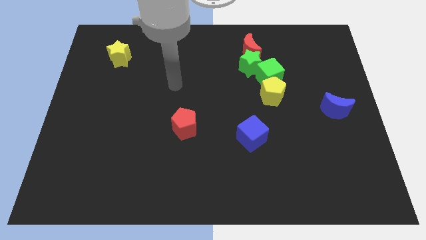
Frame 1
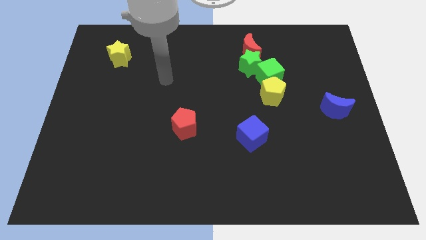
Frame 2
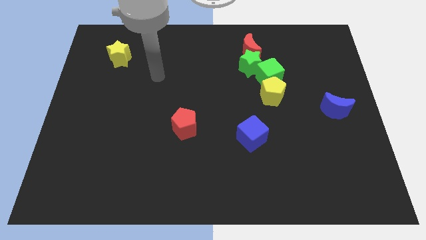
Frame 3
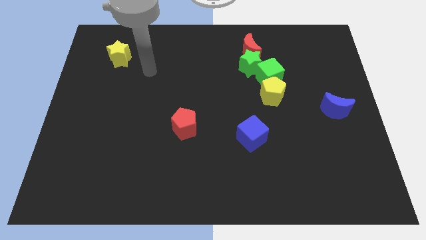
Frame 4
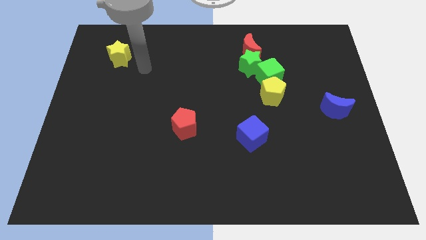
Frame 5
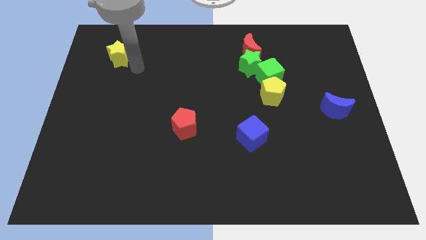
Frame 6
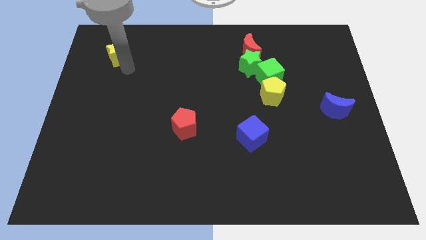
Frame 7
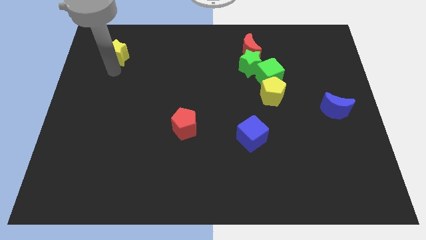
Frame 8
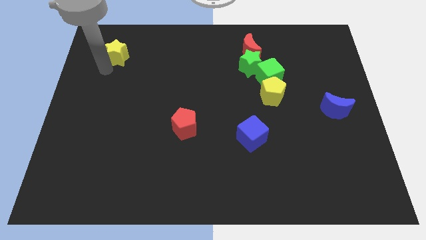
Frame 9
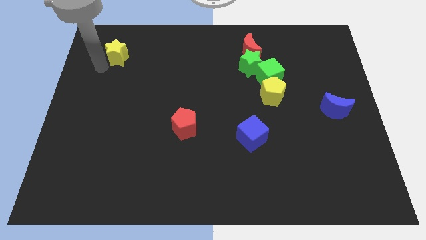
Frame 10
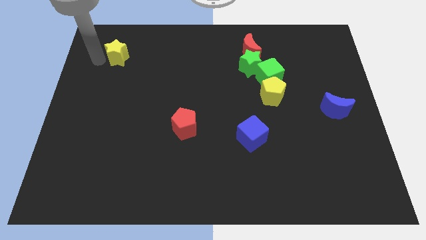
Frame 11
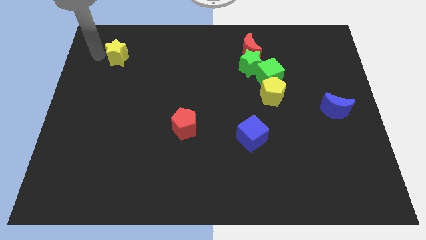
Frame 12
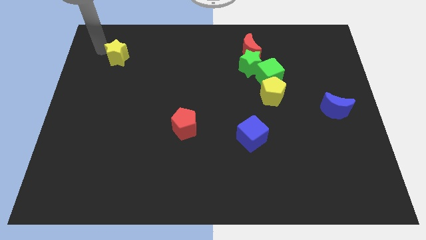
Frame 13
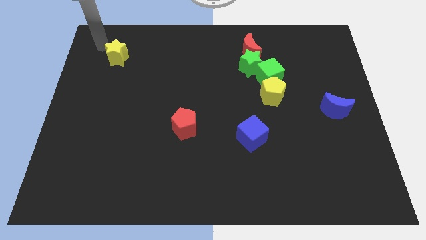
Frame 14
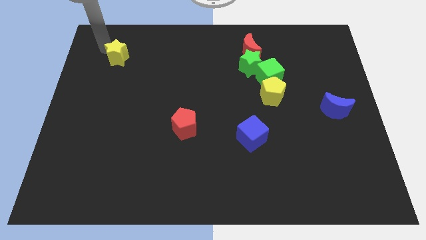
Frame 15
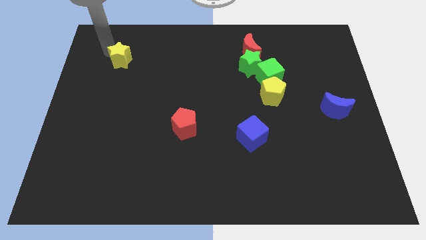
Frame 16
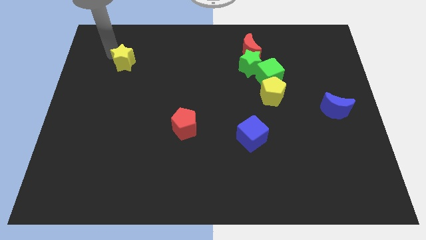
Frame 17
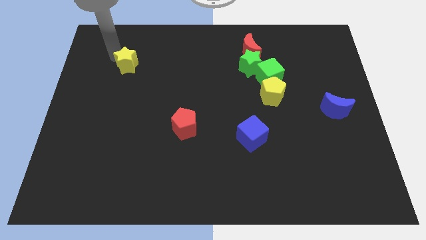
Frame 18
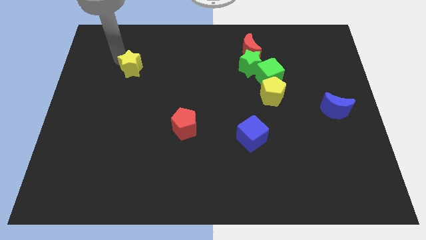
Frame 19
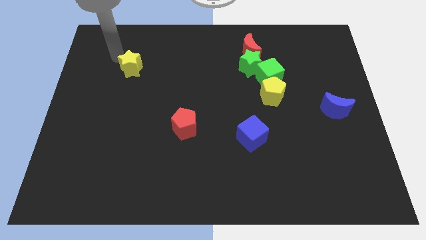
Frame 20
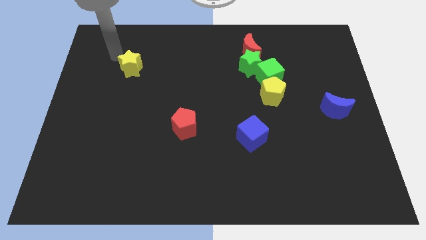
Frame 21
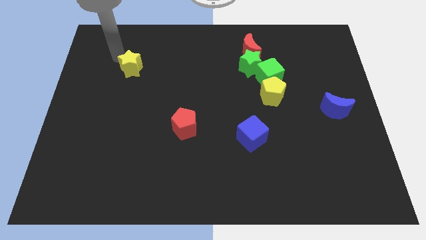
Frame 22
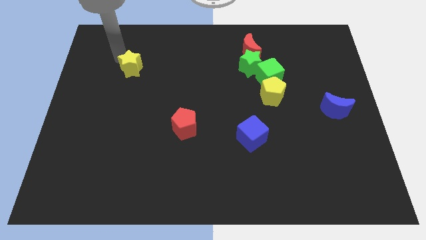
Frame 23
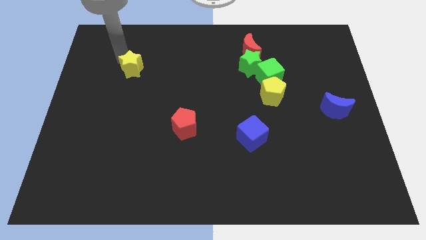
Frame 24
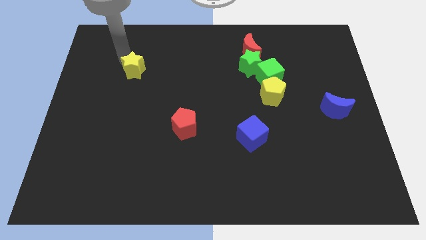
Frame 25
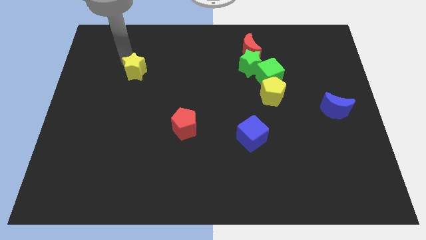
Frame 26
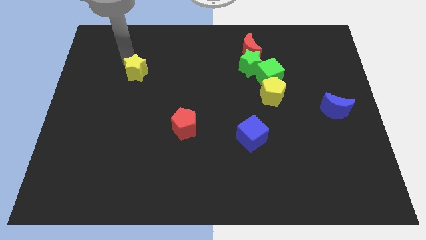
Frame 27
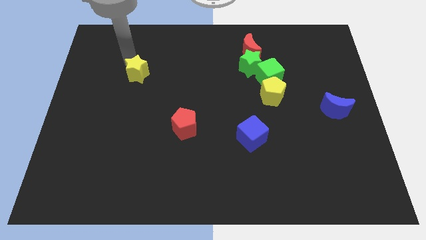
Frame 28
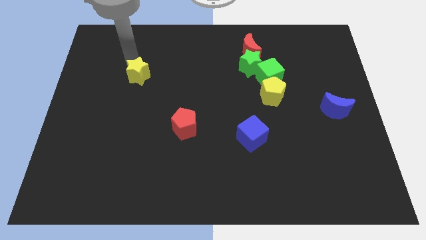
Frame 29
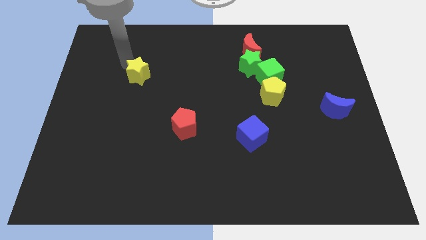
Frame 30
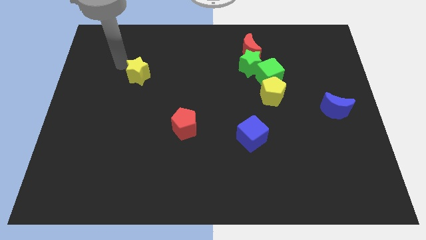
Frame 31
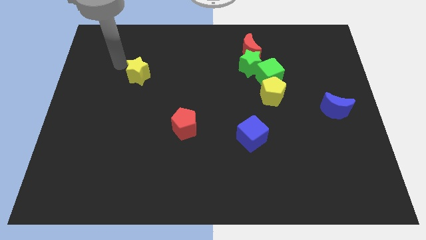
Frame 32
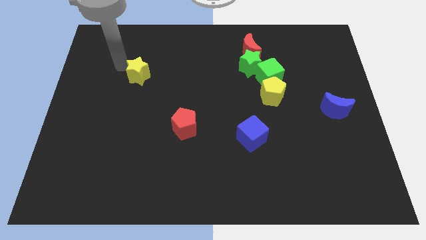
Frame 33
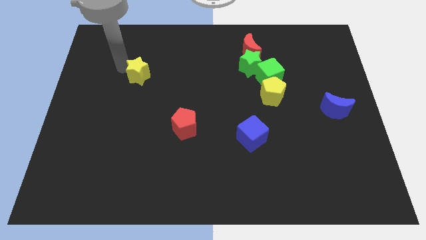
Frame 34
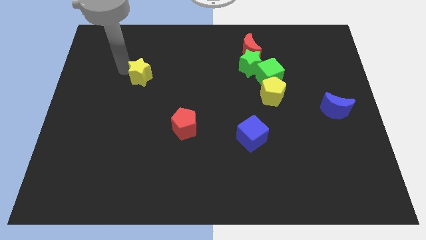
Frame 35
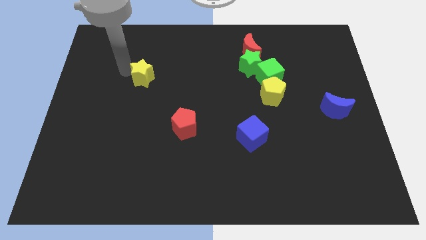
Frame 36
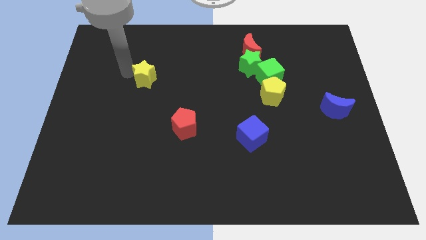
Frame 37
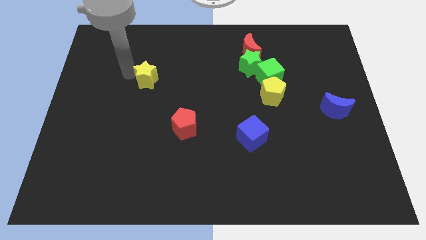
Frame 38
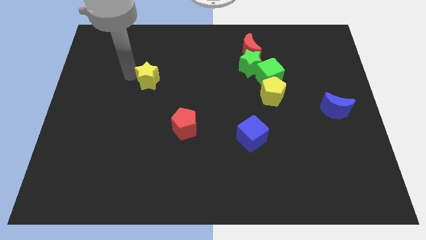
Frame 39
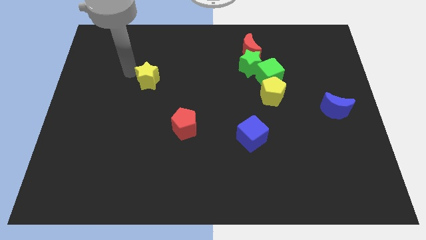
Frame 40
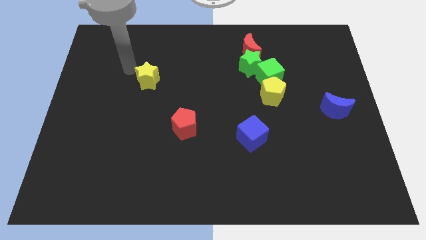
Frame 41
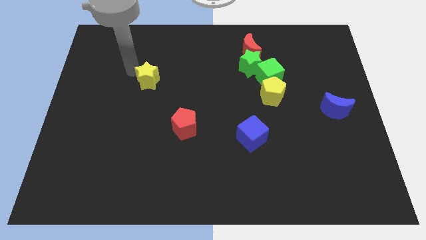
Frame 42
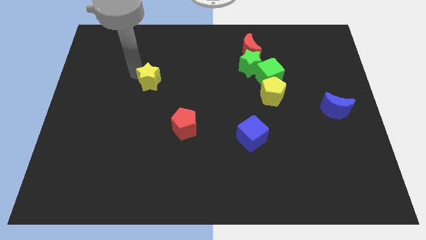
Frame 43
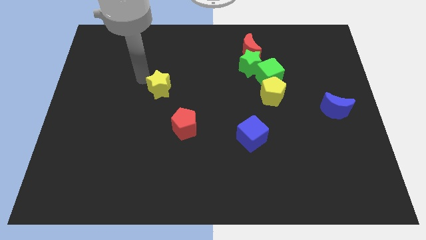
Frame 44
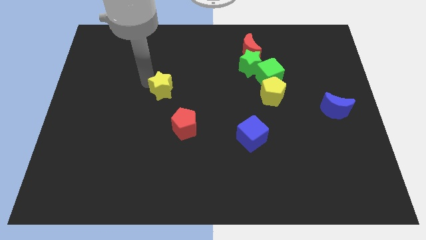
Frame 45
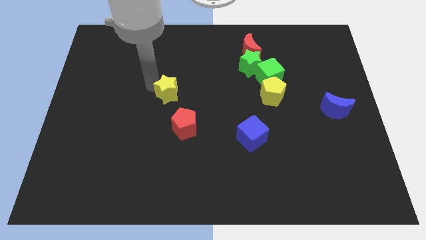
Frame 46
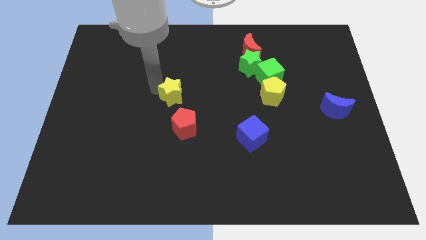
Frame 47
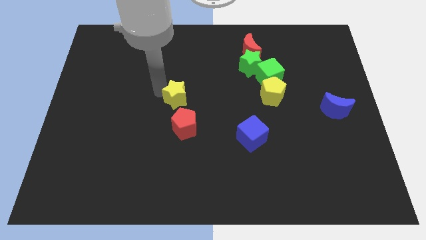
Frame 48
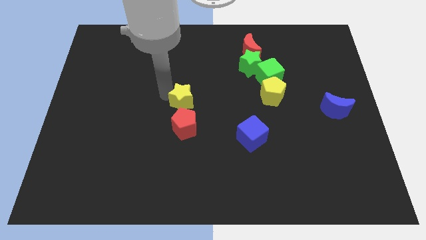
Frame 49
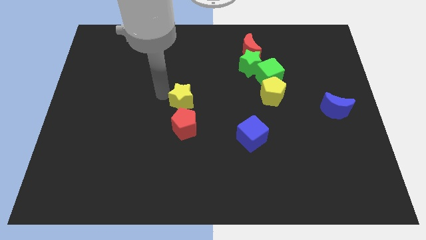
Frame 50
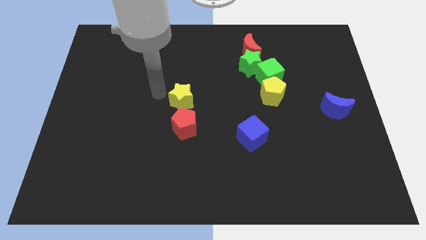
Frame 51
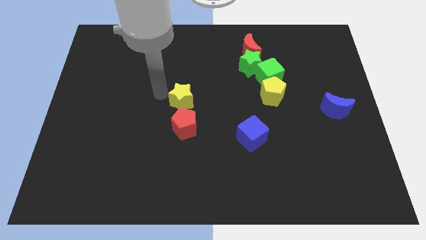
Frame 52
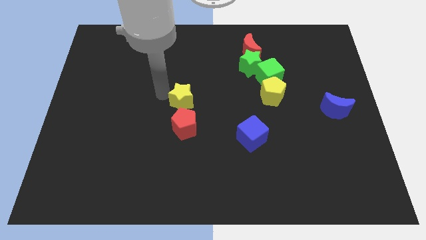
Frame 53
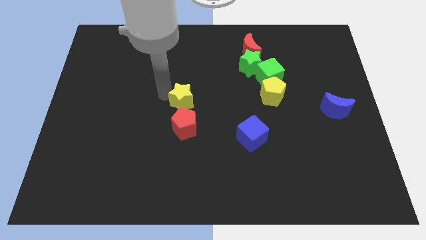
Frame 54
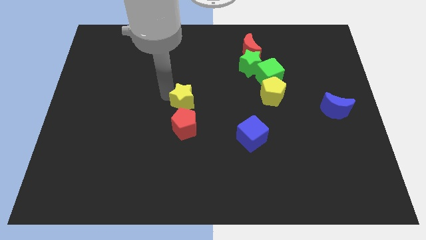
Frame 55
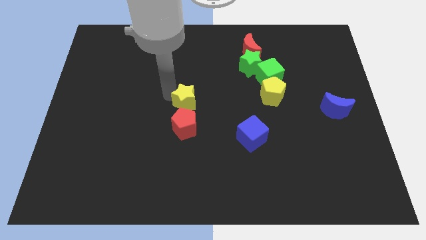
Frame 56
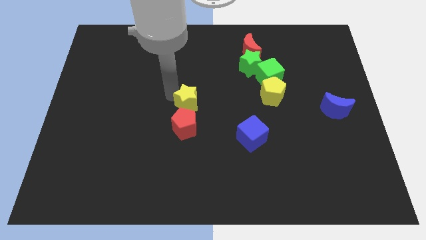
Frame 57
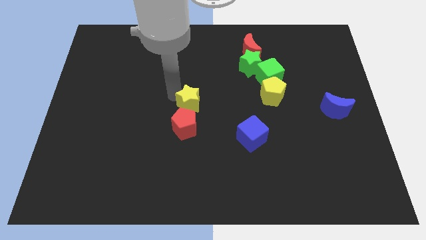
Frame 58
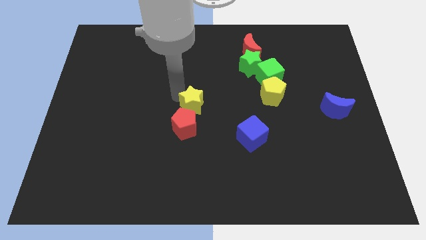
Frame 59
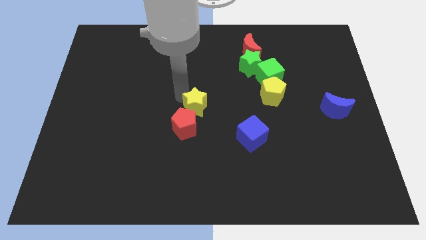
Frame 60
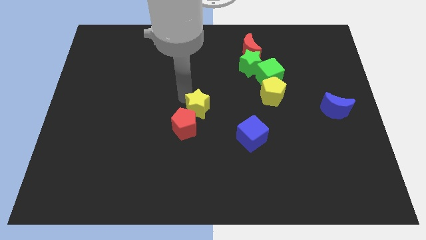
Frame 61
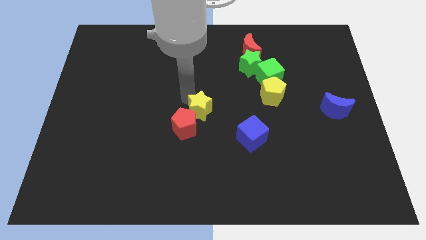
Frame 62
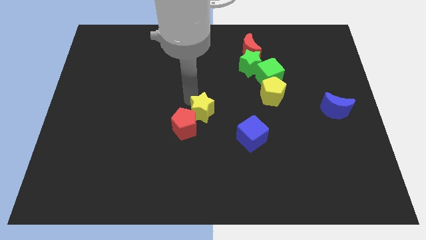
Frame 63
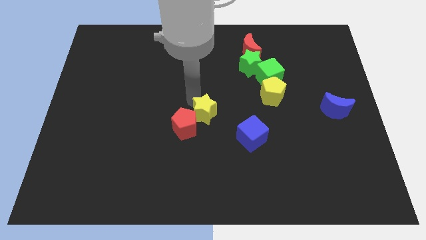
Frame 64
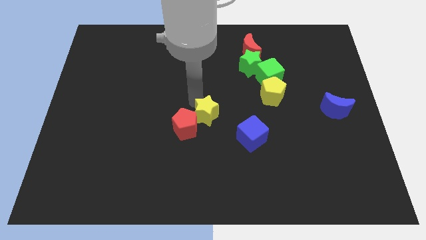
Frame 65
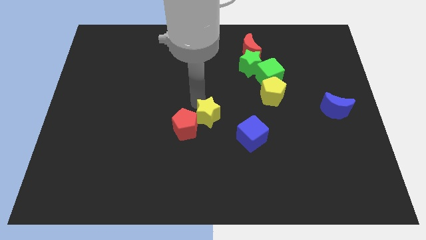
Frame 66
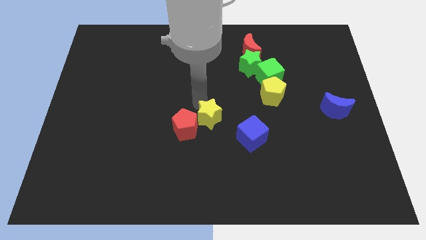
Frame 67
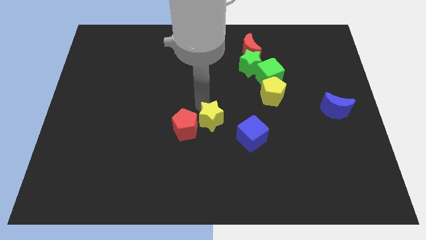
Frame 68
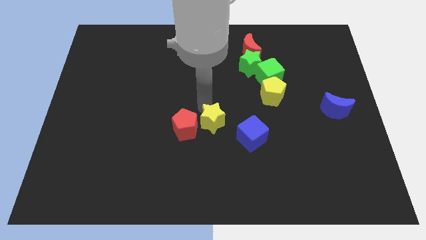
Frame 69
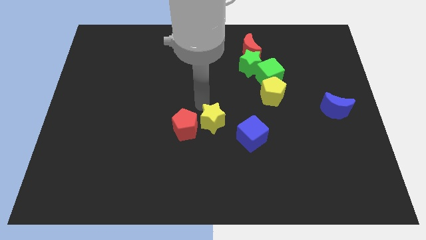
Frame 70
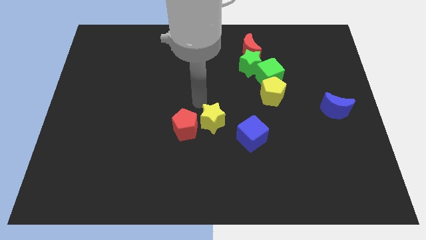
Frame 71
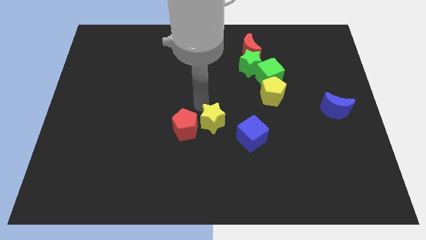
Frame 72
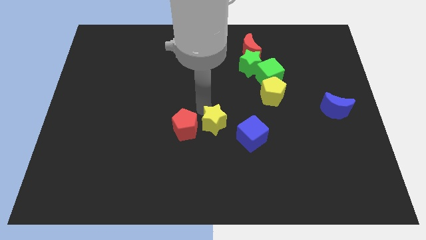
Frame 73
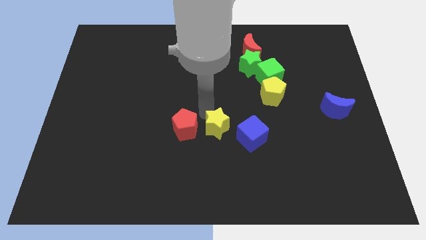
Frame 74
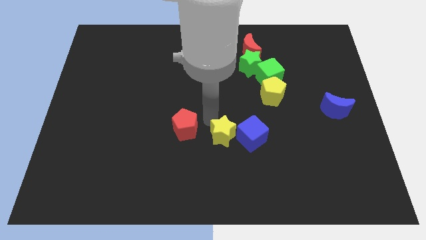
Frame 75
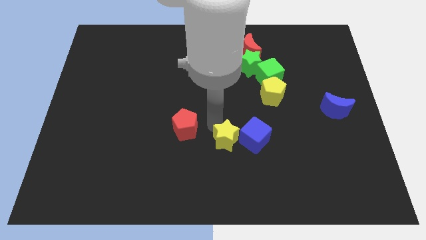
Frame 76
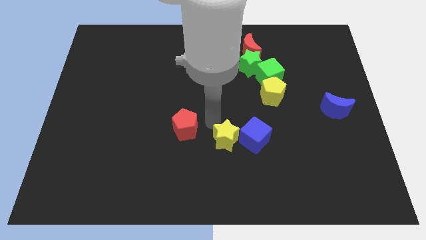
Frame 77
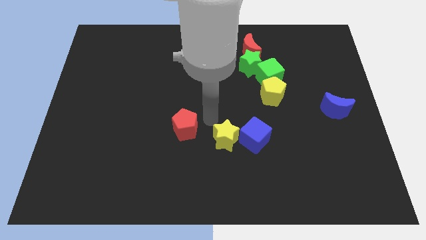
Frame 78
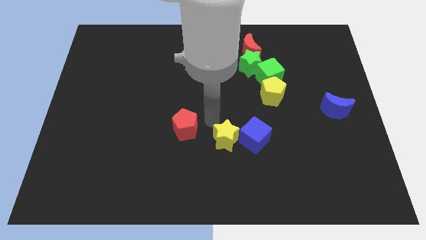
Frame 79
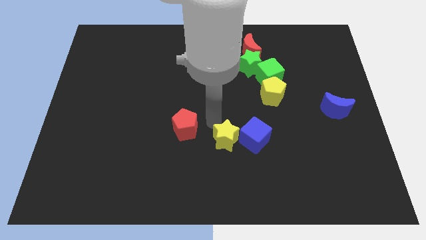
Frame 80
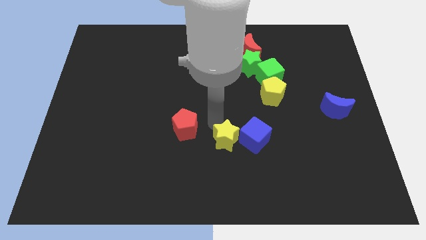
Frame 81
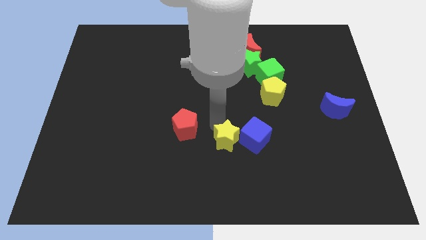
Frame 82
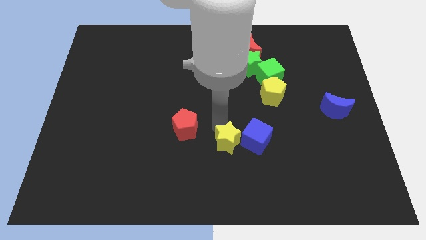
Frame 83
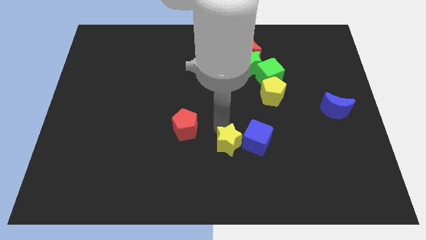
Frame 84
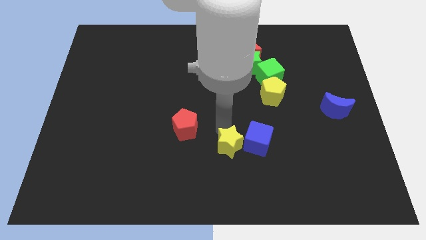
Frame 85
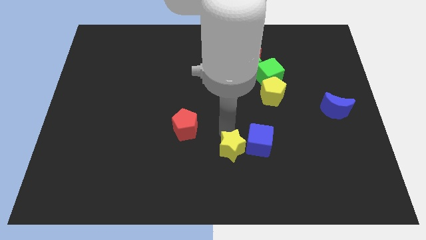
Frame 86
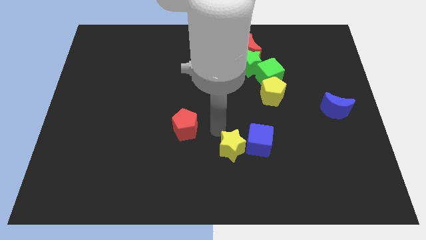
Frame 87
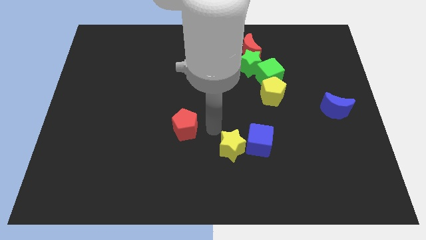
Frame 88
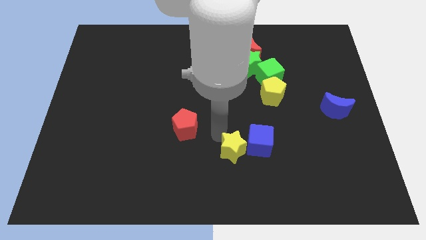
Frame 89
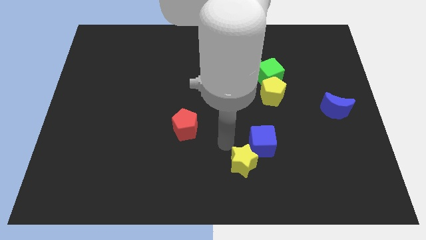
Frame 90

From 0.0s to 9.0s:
put the yellow star to the bottom of the blue cube
